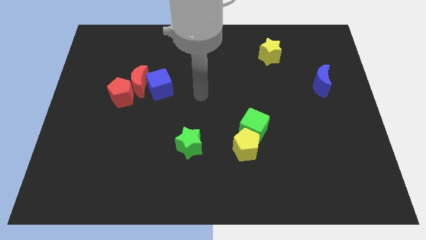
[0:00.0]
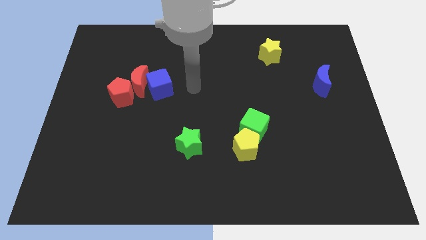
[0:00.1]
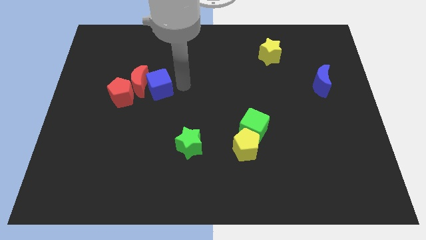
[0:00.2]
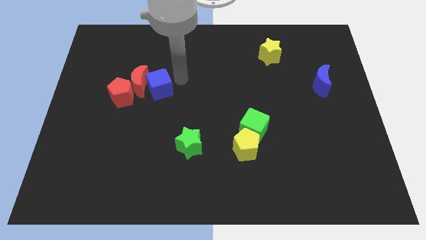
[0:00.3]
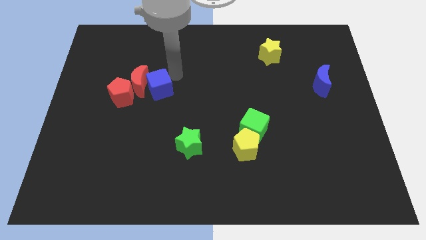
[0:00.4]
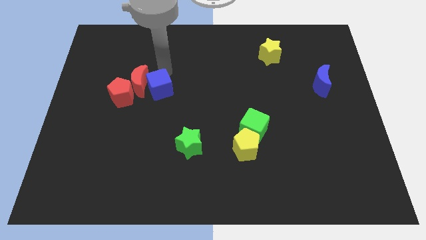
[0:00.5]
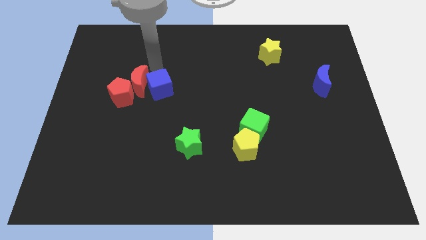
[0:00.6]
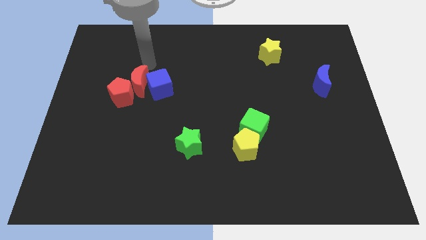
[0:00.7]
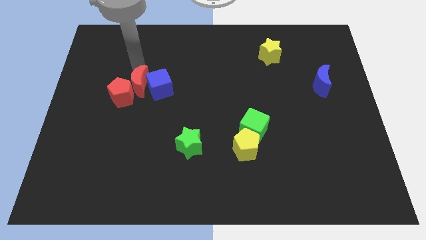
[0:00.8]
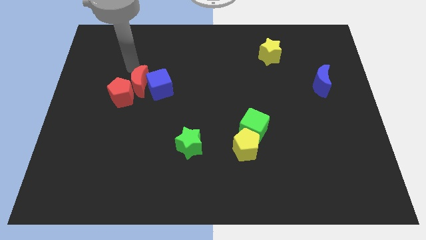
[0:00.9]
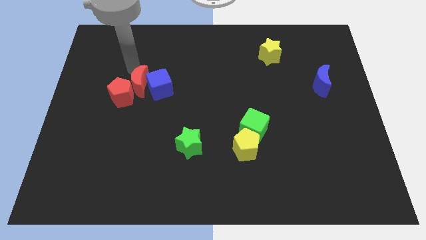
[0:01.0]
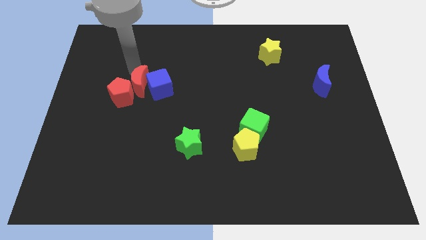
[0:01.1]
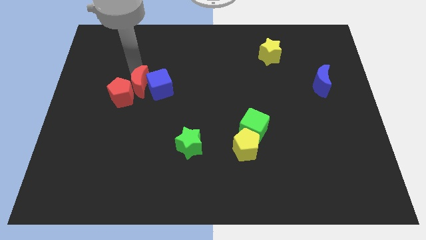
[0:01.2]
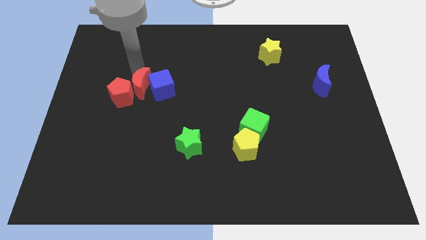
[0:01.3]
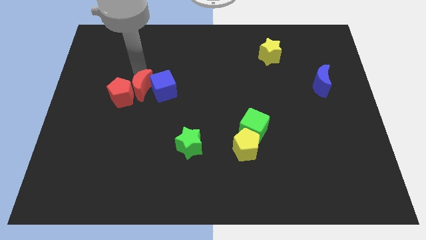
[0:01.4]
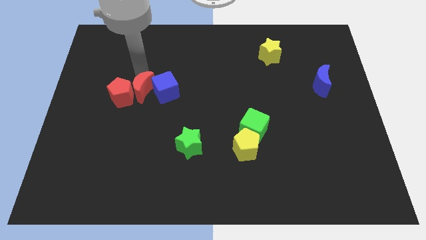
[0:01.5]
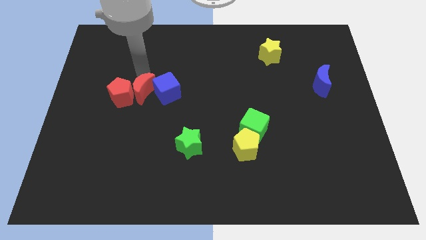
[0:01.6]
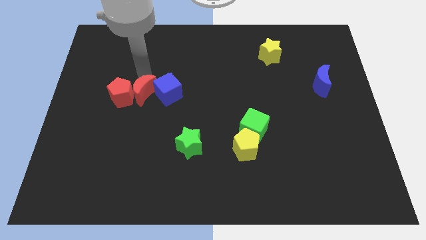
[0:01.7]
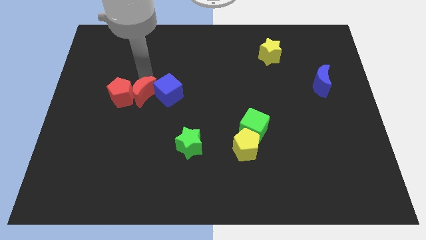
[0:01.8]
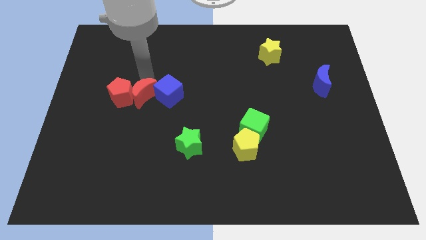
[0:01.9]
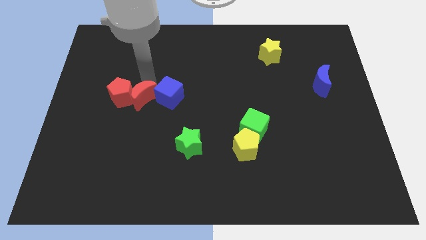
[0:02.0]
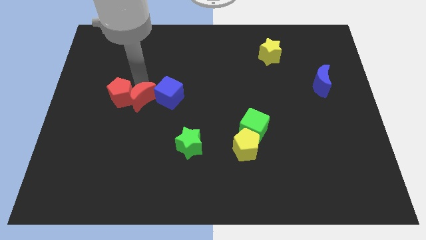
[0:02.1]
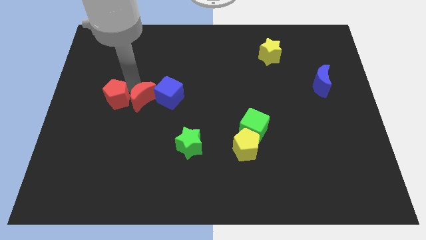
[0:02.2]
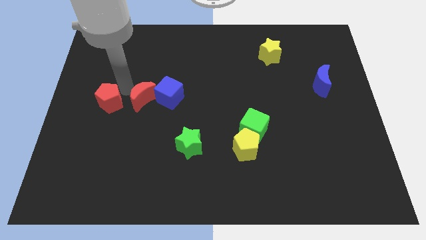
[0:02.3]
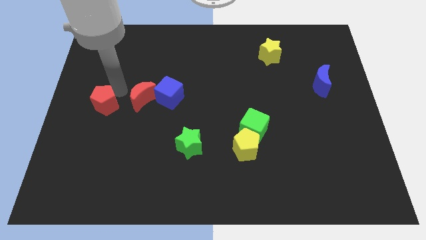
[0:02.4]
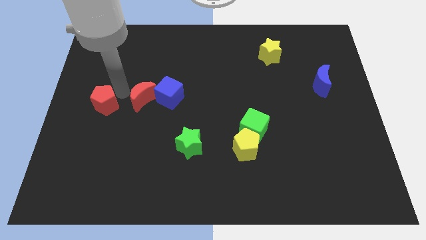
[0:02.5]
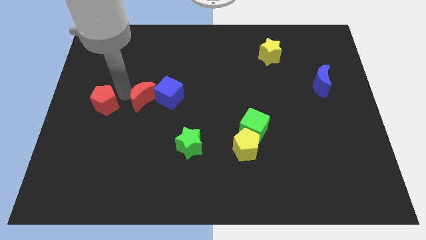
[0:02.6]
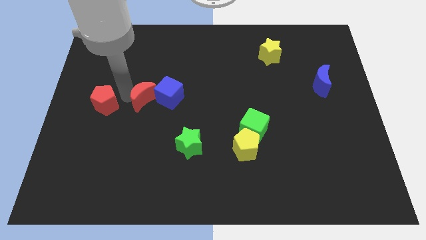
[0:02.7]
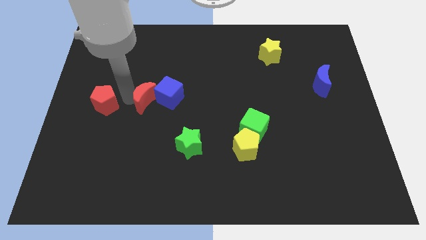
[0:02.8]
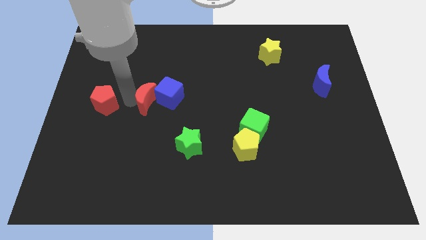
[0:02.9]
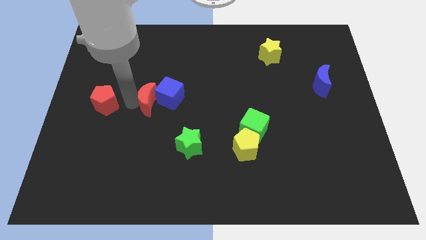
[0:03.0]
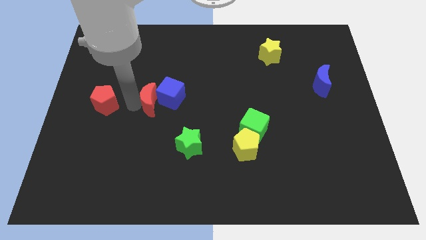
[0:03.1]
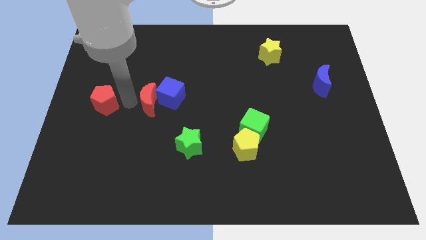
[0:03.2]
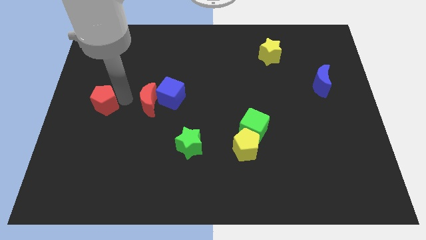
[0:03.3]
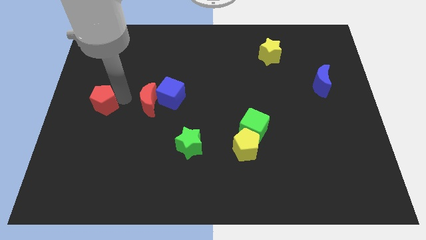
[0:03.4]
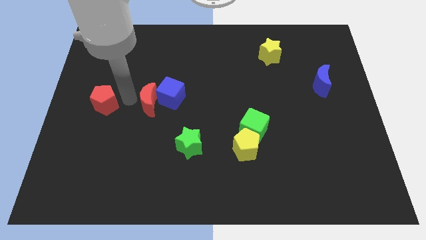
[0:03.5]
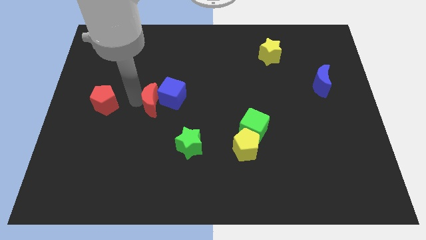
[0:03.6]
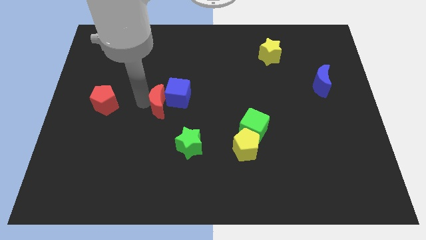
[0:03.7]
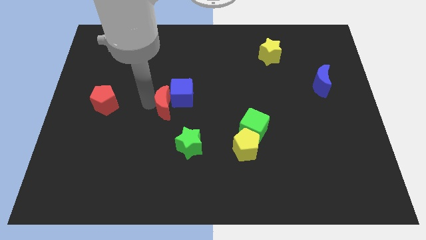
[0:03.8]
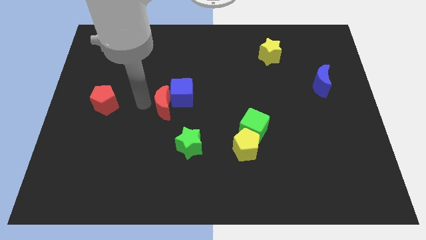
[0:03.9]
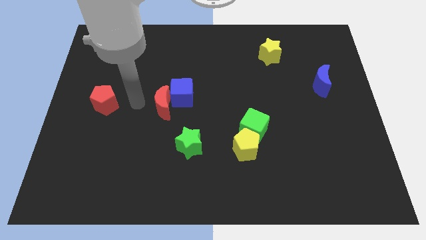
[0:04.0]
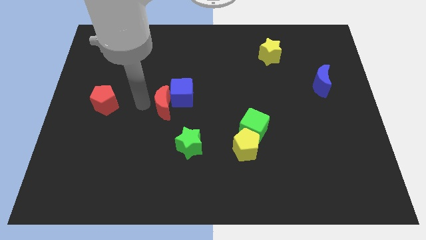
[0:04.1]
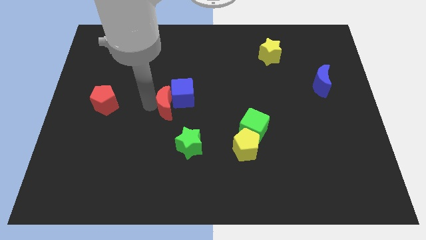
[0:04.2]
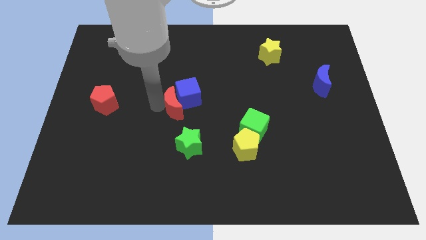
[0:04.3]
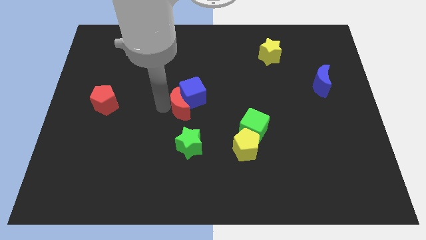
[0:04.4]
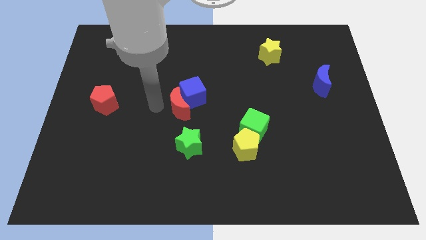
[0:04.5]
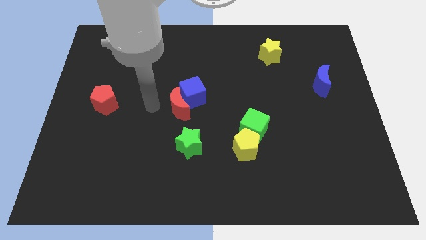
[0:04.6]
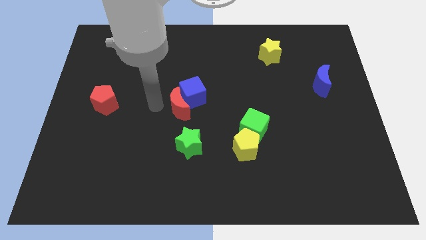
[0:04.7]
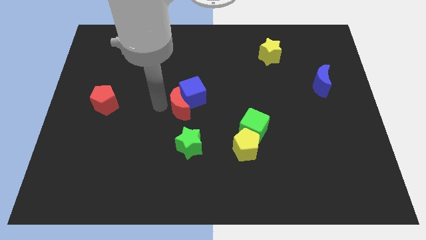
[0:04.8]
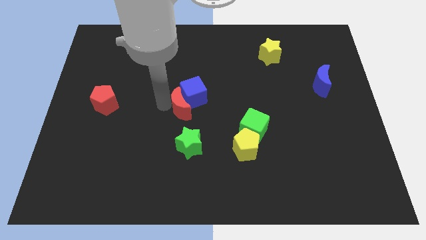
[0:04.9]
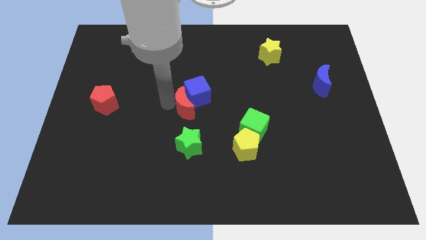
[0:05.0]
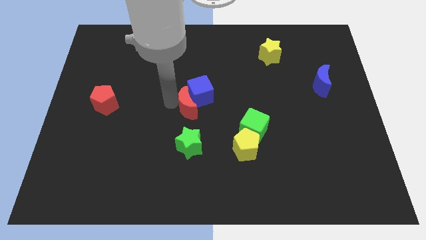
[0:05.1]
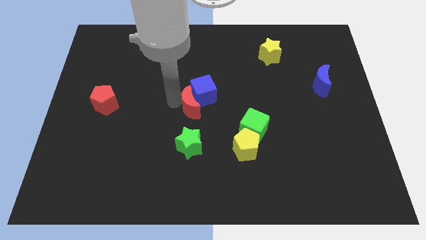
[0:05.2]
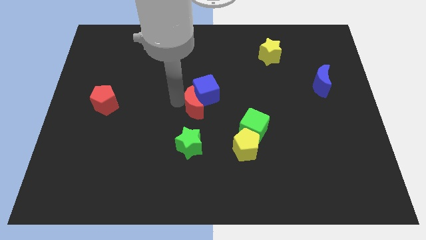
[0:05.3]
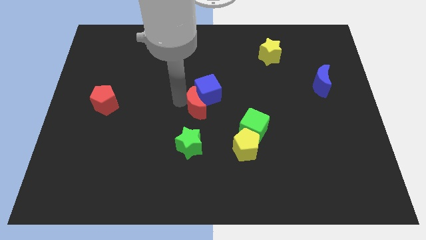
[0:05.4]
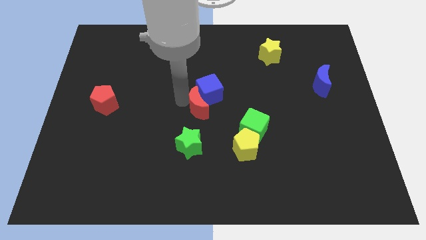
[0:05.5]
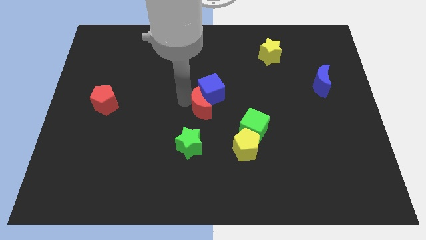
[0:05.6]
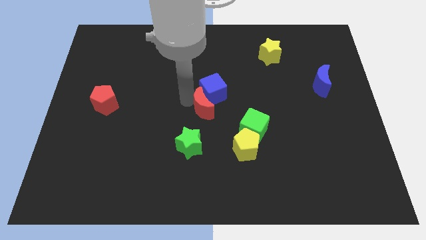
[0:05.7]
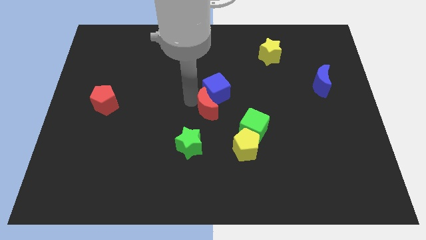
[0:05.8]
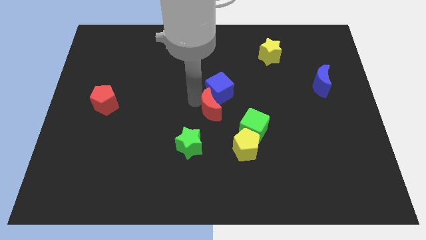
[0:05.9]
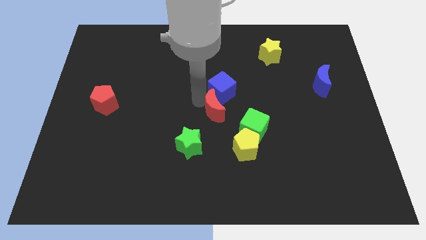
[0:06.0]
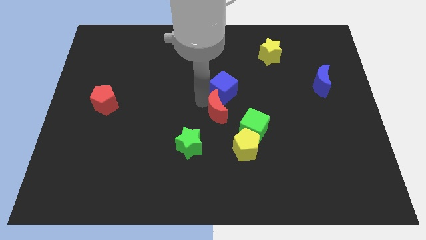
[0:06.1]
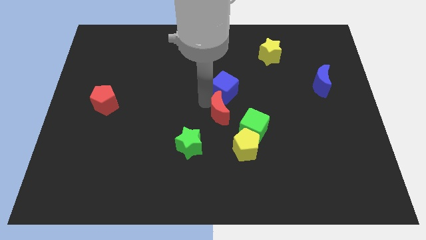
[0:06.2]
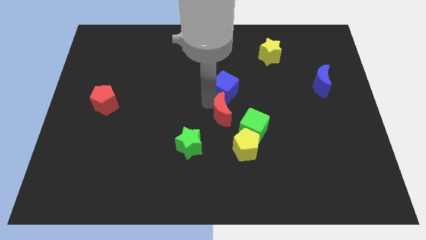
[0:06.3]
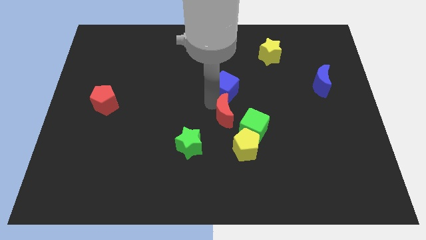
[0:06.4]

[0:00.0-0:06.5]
push the red moon to the top side of the yellow pentagon

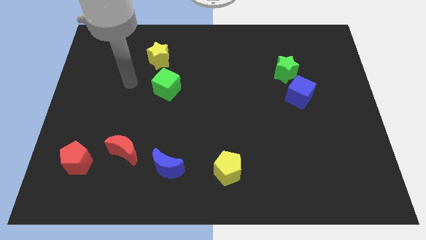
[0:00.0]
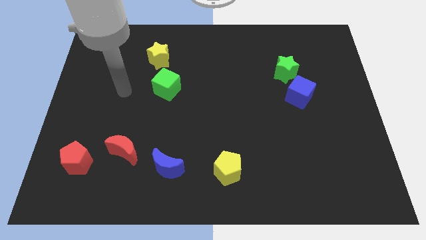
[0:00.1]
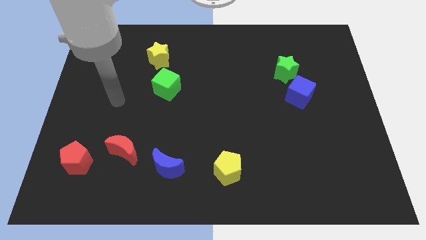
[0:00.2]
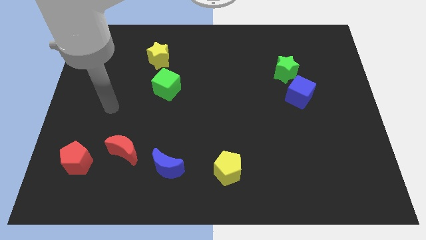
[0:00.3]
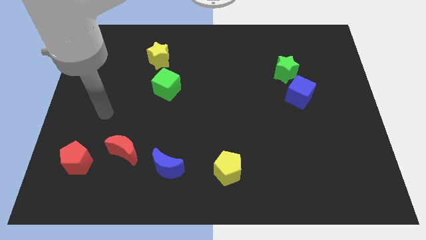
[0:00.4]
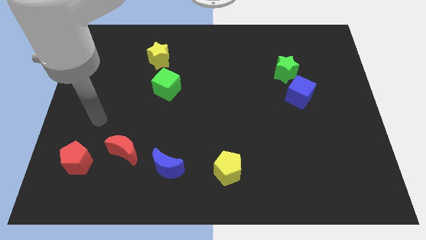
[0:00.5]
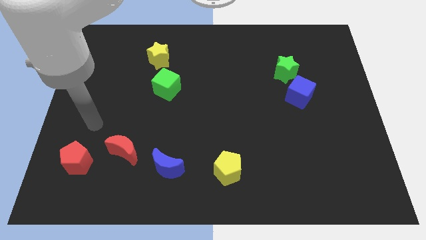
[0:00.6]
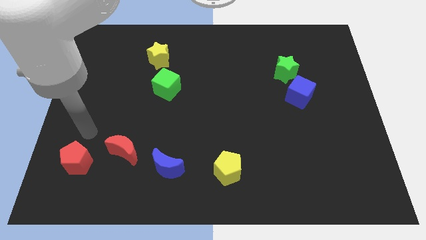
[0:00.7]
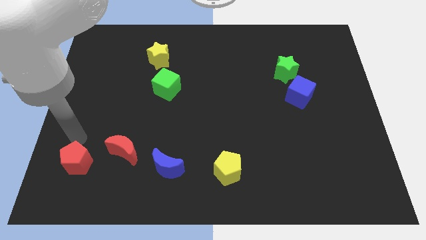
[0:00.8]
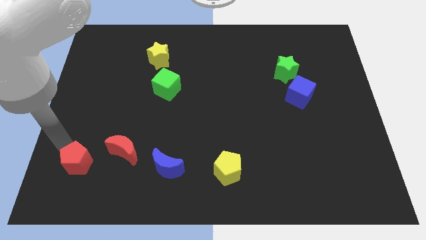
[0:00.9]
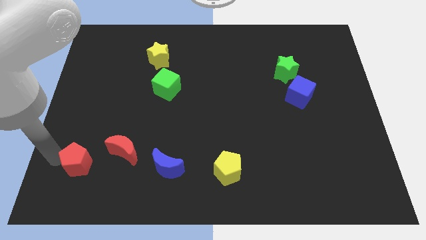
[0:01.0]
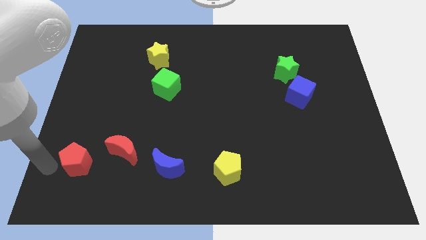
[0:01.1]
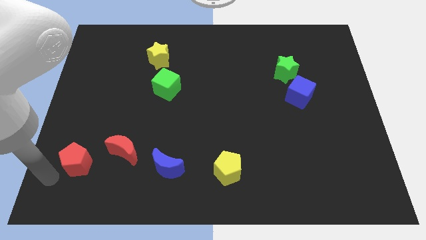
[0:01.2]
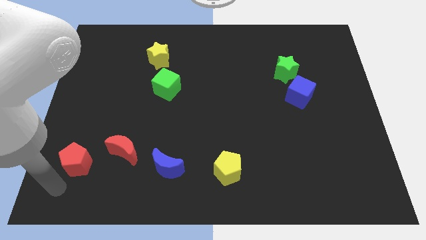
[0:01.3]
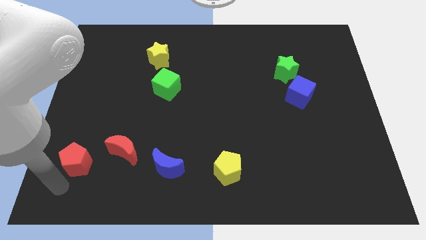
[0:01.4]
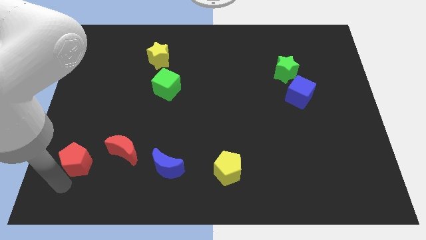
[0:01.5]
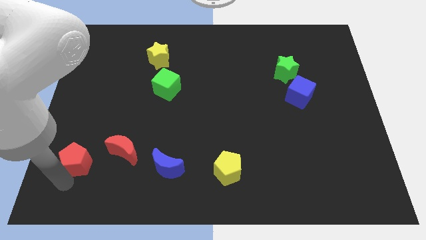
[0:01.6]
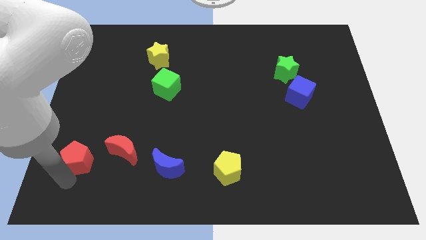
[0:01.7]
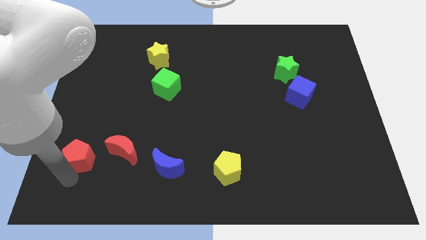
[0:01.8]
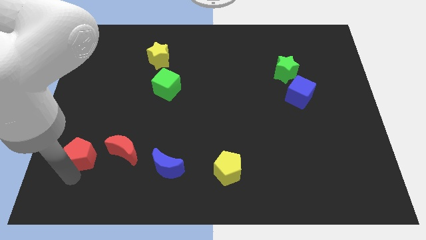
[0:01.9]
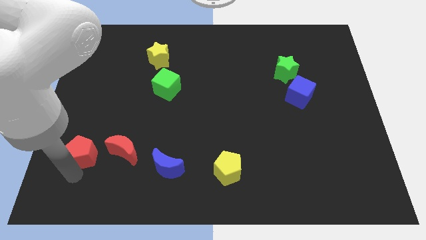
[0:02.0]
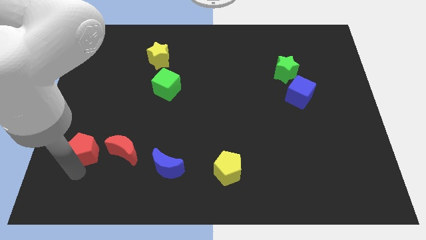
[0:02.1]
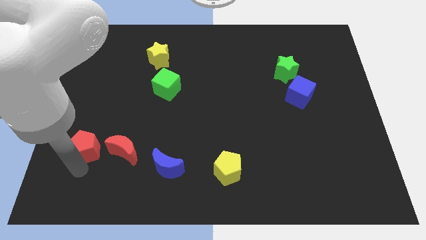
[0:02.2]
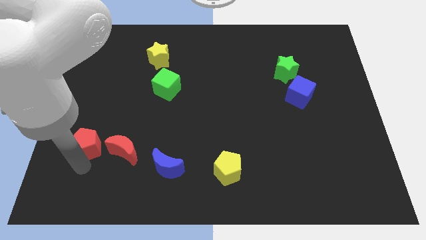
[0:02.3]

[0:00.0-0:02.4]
move the red pentagon diagonally up and to the left of the red moon
